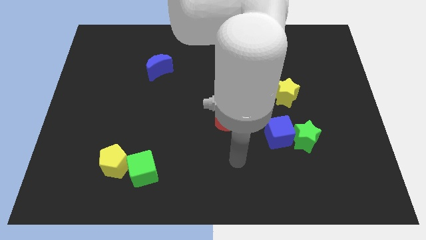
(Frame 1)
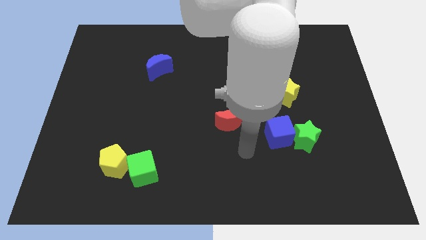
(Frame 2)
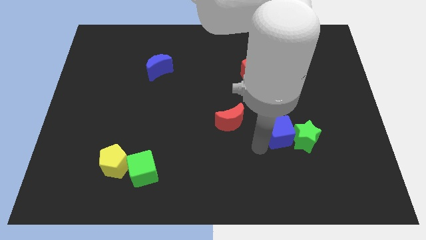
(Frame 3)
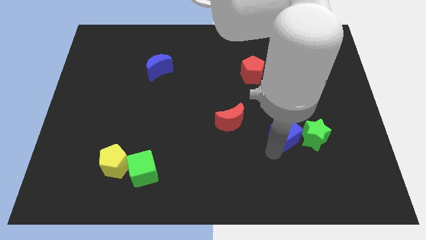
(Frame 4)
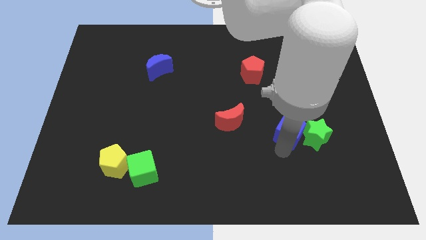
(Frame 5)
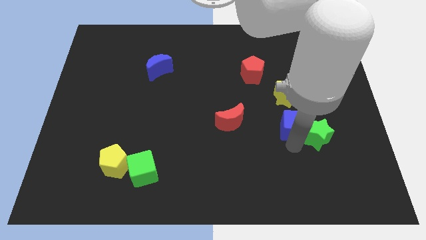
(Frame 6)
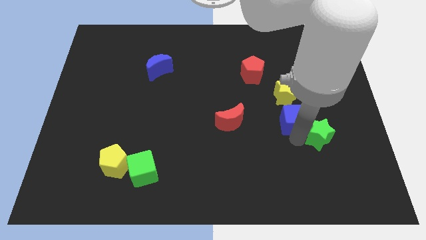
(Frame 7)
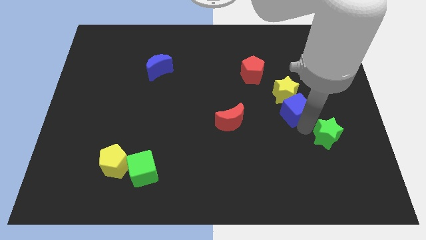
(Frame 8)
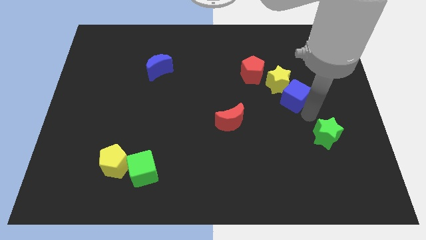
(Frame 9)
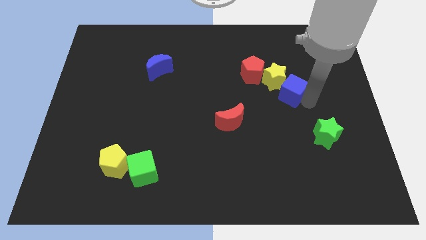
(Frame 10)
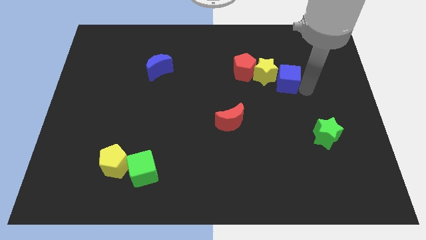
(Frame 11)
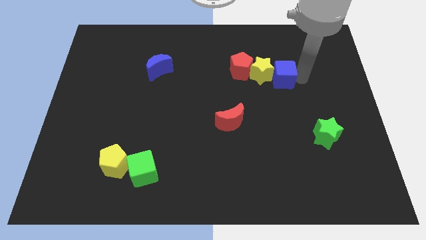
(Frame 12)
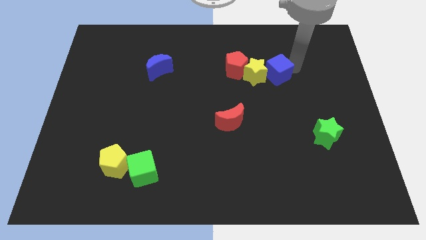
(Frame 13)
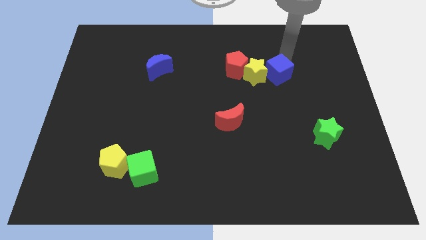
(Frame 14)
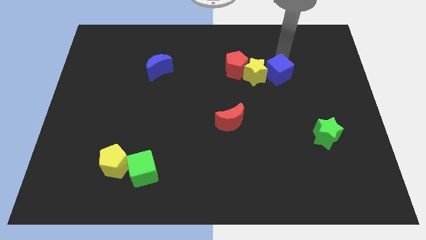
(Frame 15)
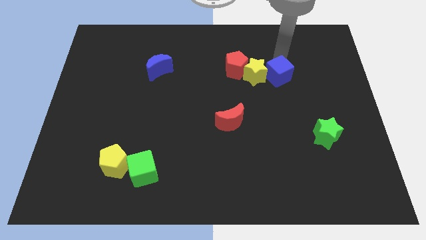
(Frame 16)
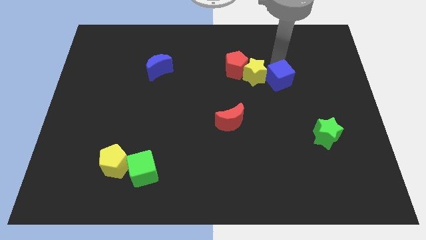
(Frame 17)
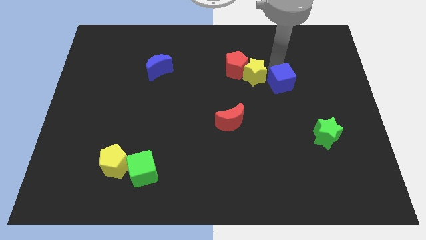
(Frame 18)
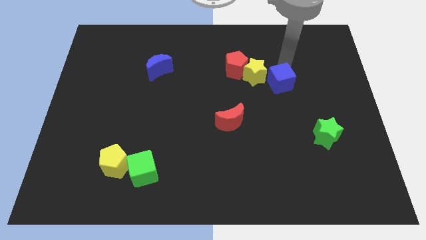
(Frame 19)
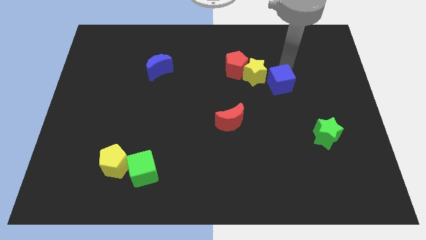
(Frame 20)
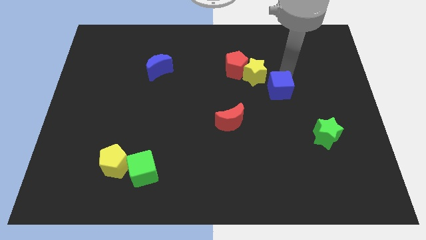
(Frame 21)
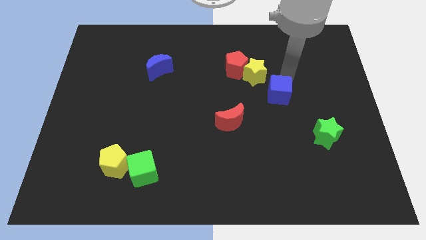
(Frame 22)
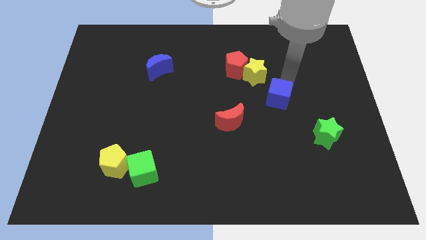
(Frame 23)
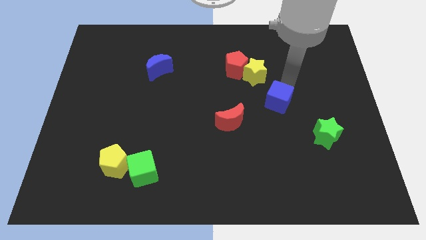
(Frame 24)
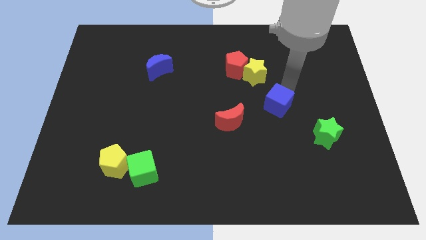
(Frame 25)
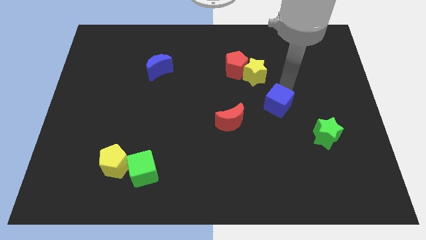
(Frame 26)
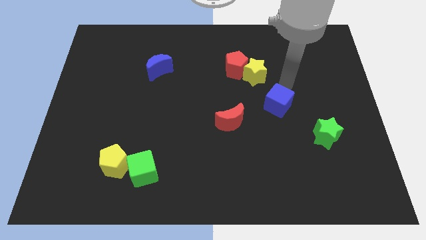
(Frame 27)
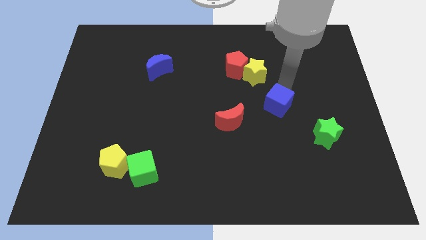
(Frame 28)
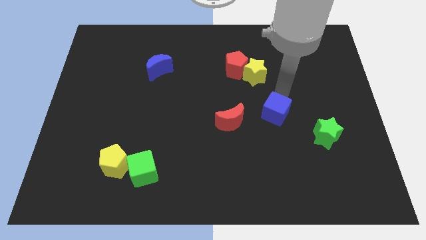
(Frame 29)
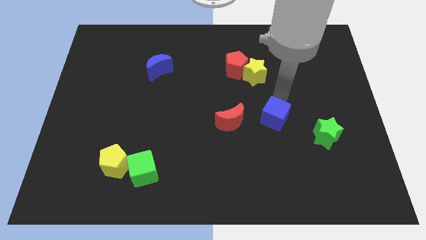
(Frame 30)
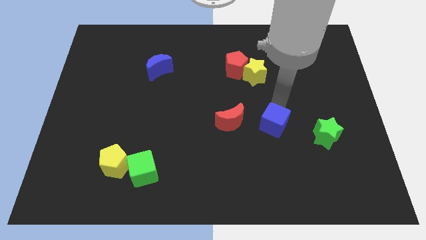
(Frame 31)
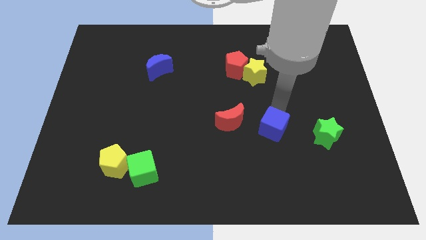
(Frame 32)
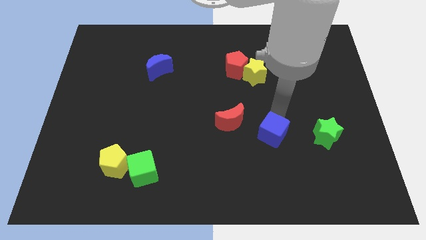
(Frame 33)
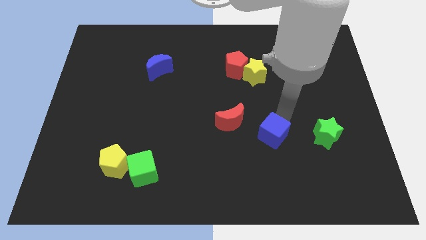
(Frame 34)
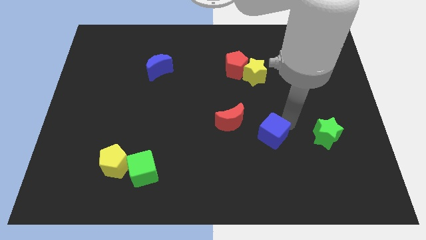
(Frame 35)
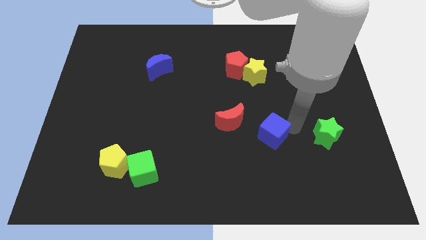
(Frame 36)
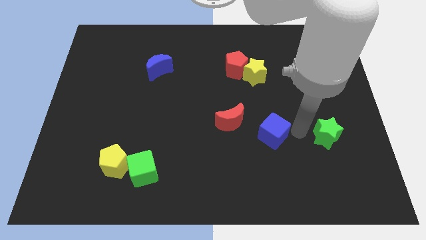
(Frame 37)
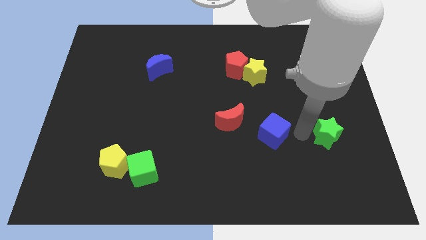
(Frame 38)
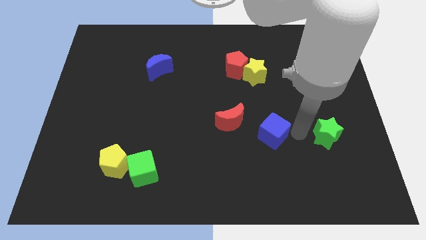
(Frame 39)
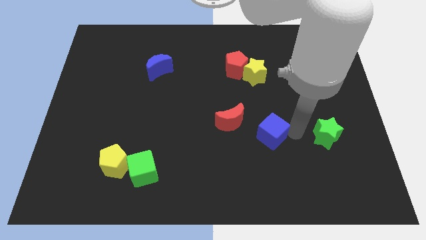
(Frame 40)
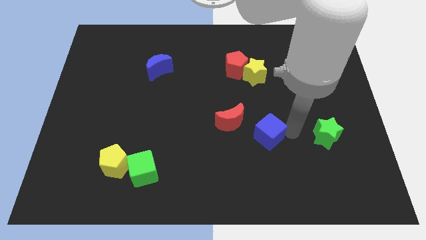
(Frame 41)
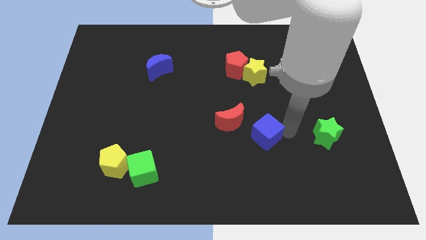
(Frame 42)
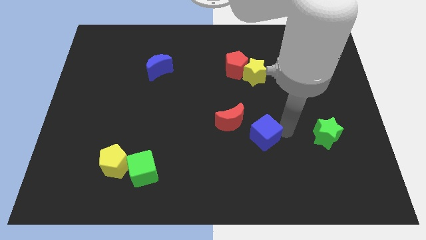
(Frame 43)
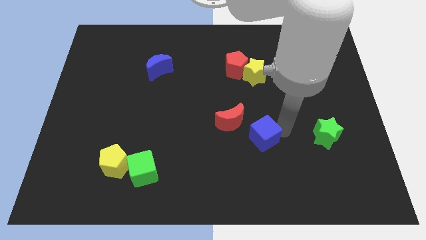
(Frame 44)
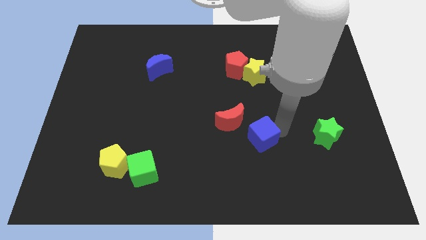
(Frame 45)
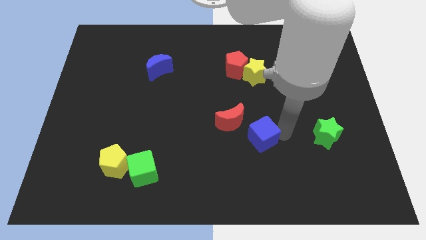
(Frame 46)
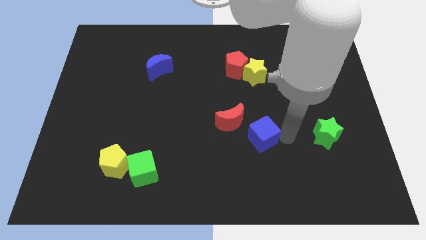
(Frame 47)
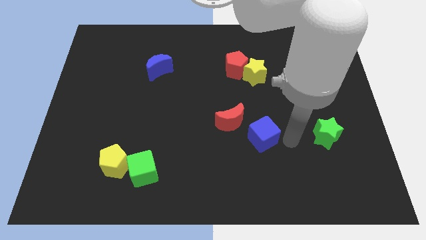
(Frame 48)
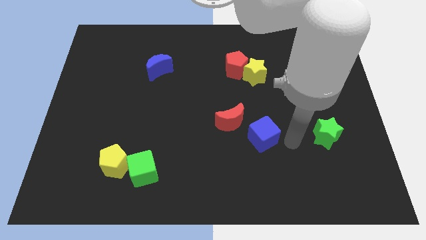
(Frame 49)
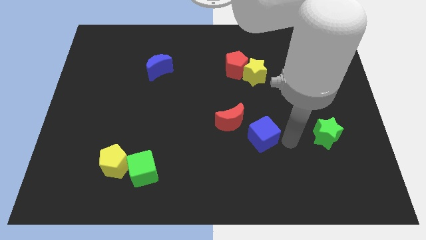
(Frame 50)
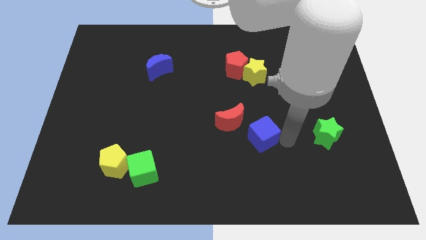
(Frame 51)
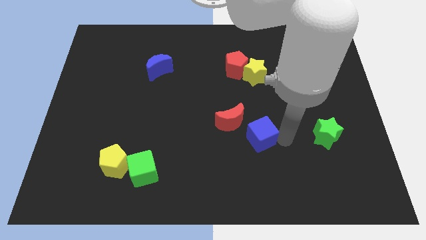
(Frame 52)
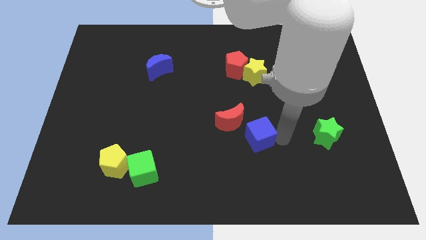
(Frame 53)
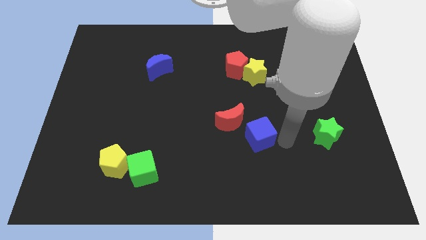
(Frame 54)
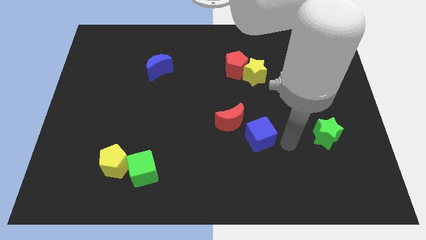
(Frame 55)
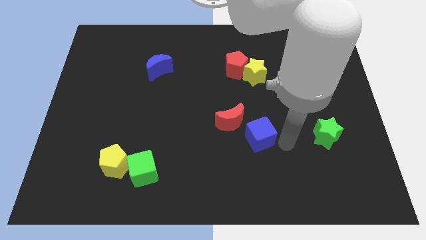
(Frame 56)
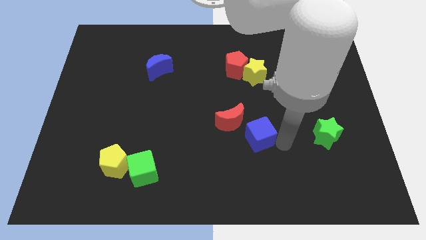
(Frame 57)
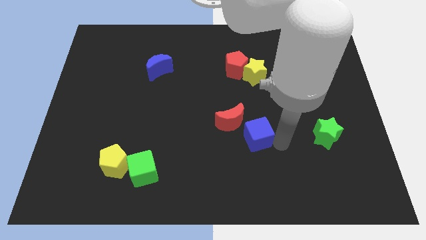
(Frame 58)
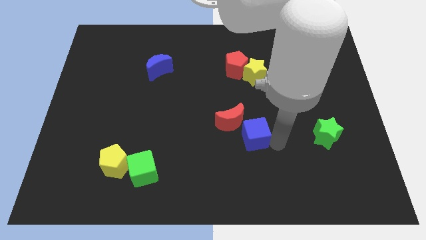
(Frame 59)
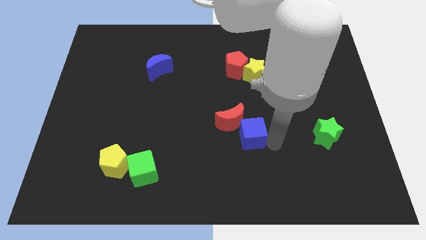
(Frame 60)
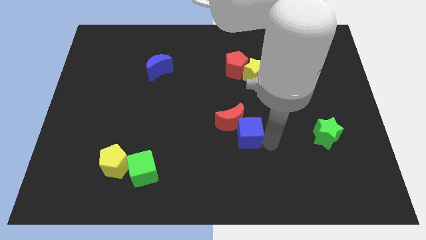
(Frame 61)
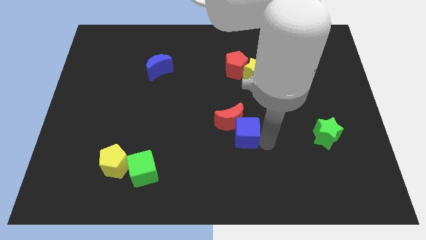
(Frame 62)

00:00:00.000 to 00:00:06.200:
push the blue cube slightly to the left

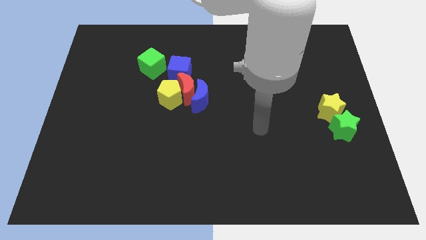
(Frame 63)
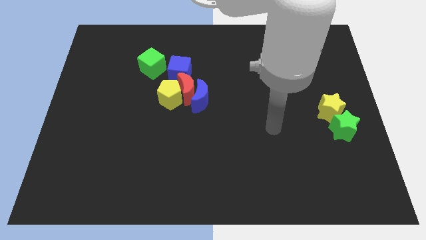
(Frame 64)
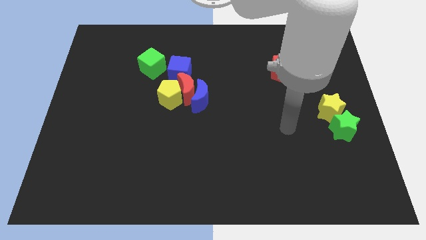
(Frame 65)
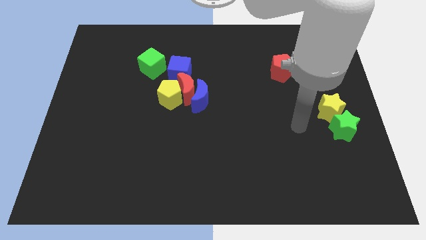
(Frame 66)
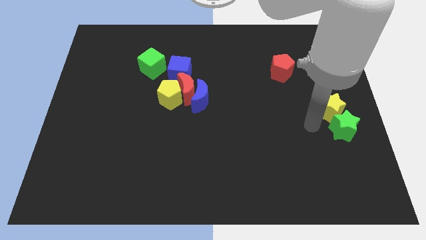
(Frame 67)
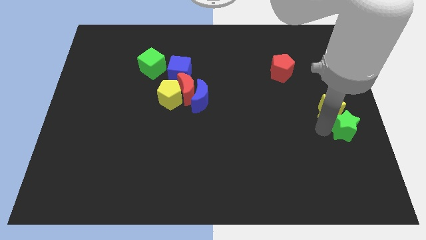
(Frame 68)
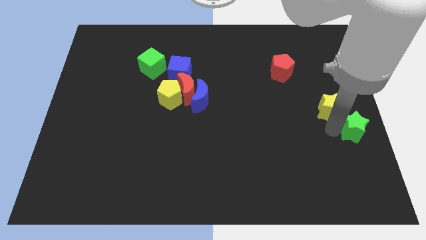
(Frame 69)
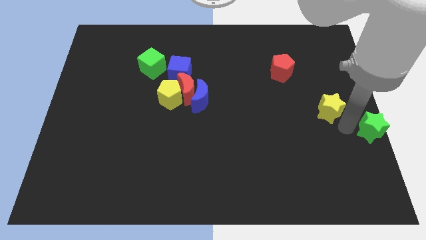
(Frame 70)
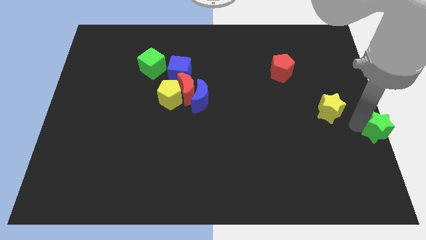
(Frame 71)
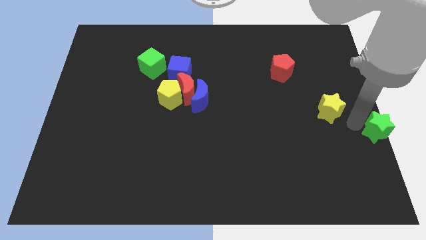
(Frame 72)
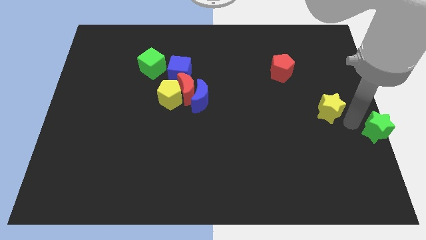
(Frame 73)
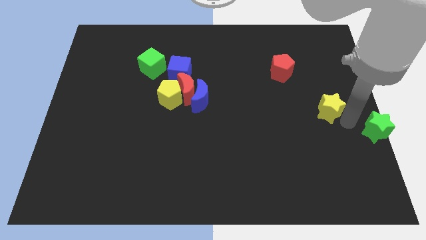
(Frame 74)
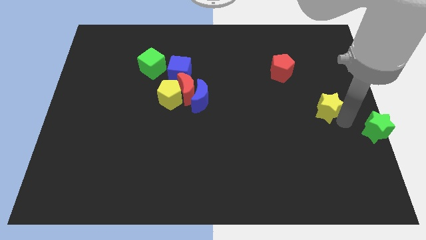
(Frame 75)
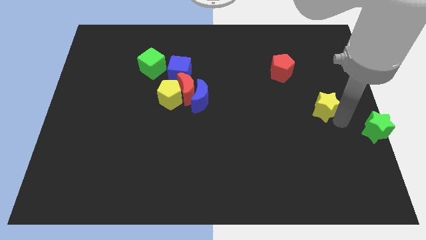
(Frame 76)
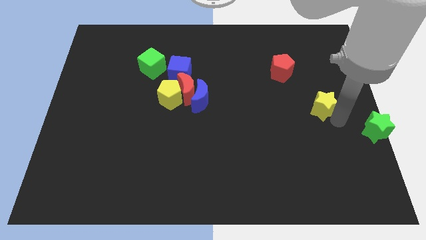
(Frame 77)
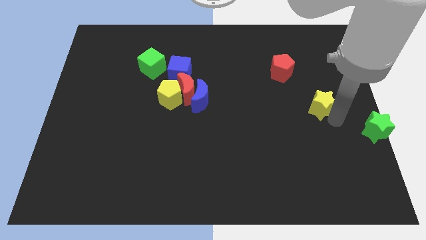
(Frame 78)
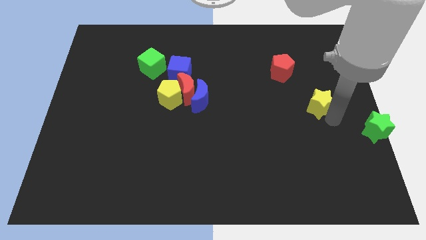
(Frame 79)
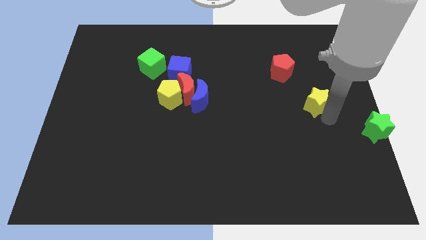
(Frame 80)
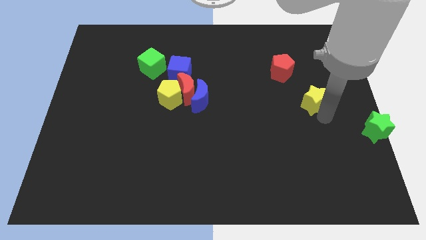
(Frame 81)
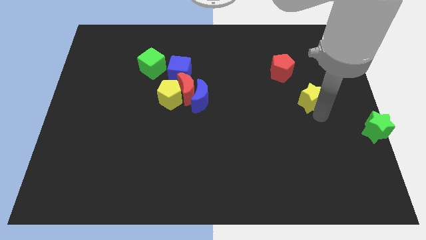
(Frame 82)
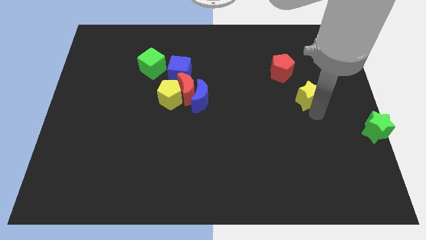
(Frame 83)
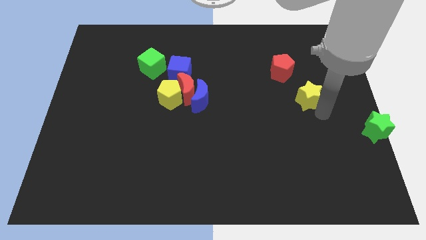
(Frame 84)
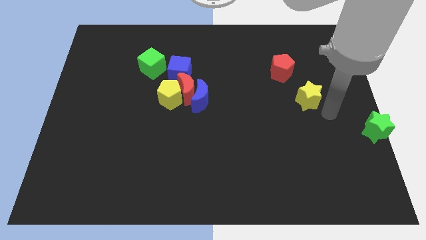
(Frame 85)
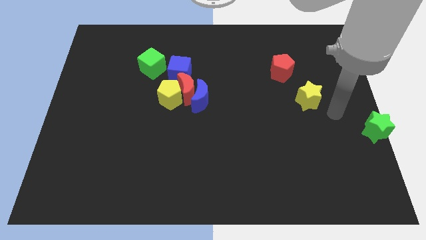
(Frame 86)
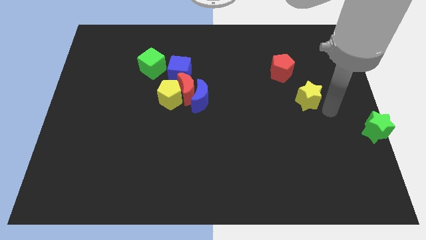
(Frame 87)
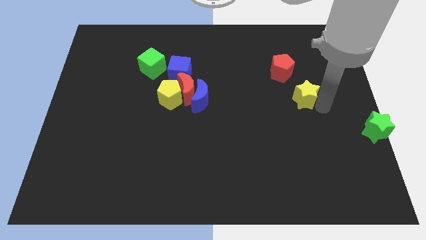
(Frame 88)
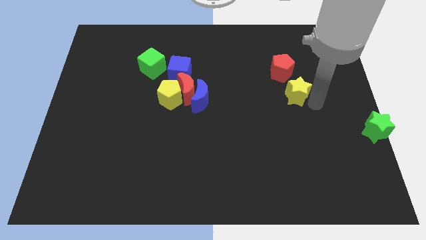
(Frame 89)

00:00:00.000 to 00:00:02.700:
slightly move the yellow star upwards and then left
